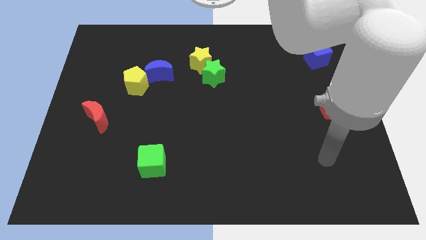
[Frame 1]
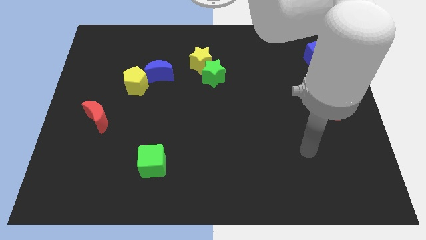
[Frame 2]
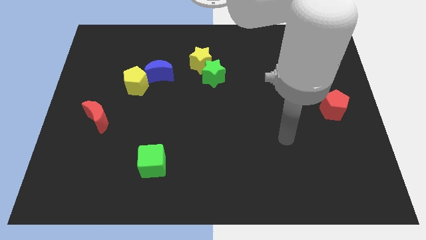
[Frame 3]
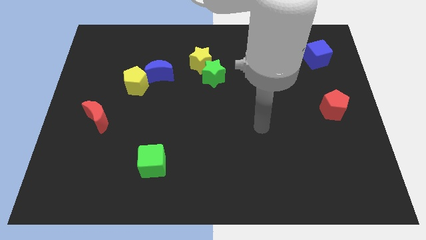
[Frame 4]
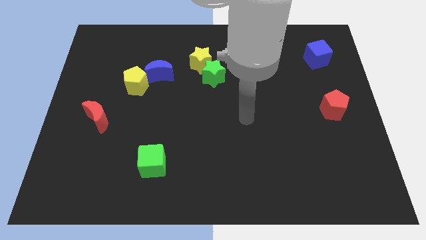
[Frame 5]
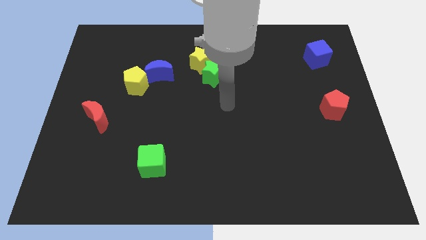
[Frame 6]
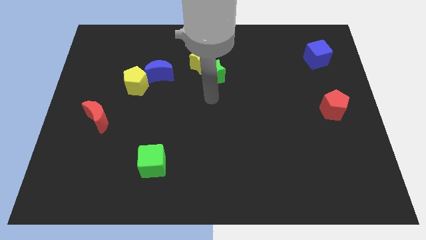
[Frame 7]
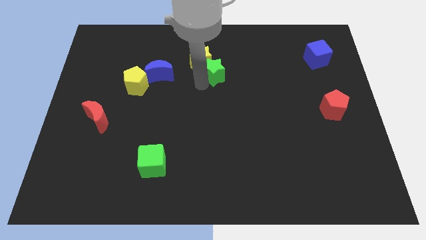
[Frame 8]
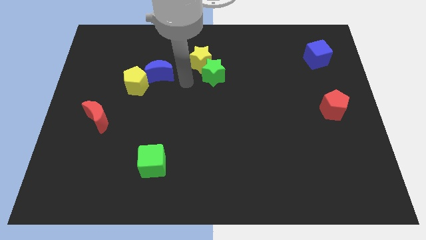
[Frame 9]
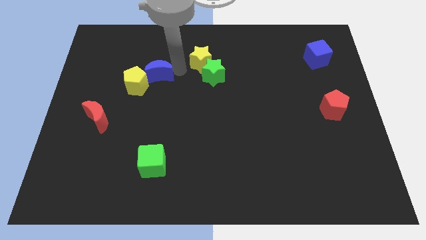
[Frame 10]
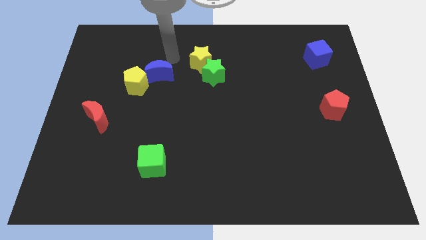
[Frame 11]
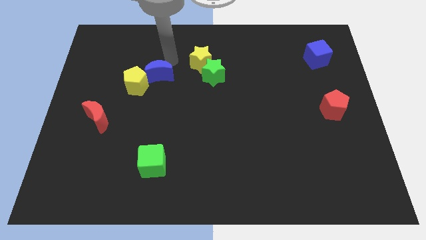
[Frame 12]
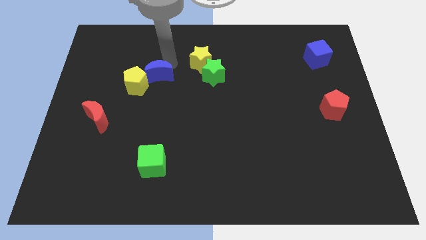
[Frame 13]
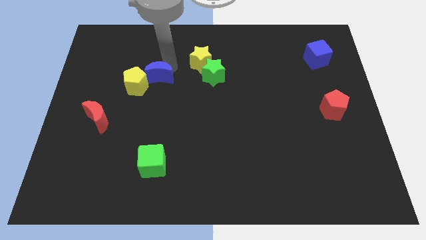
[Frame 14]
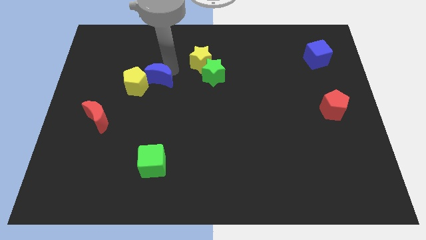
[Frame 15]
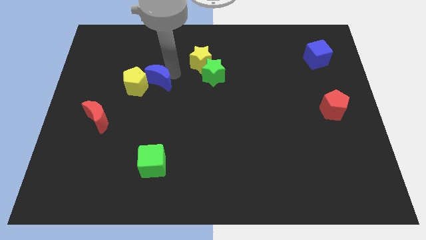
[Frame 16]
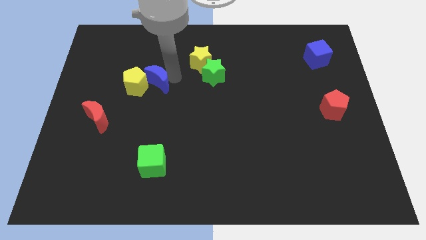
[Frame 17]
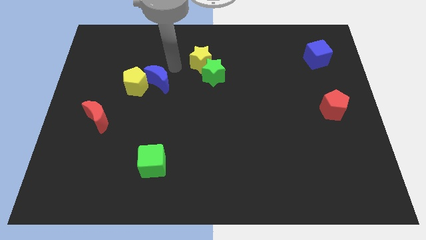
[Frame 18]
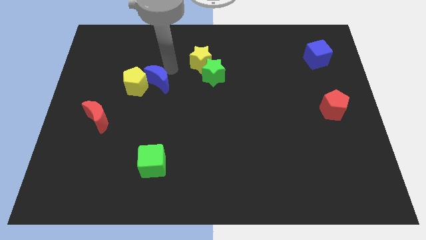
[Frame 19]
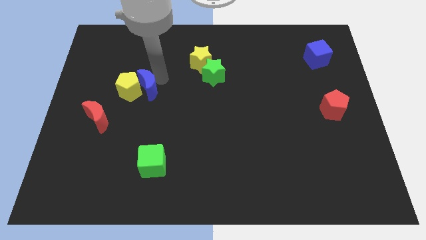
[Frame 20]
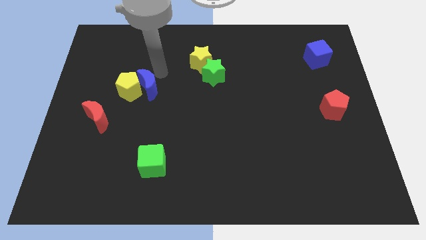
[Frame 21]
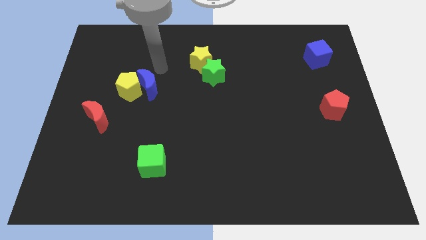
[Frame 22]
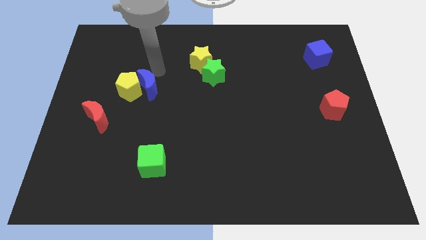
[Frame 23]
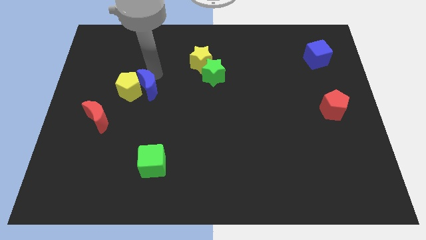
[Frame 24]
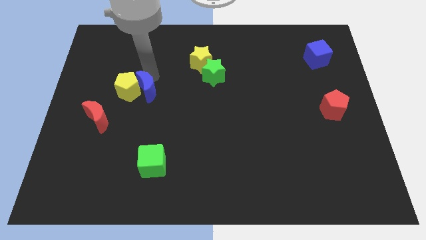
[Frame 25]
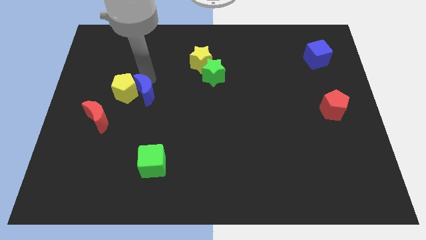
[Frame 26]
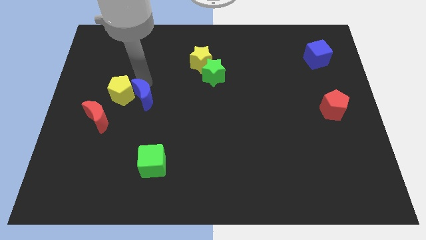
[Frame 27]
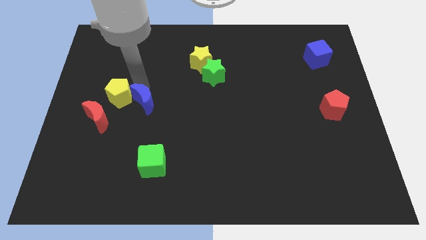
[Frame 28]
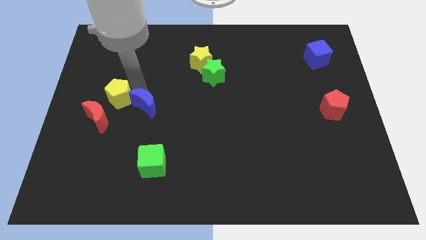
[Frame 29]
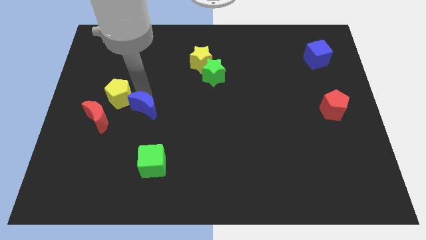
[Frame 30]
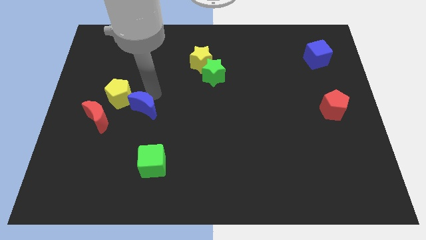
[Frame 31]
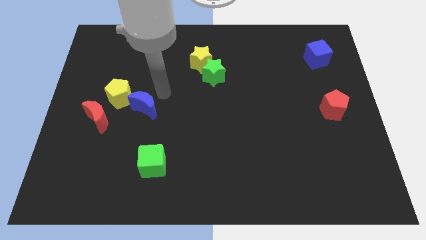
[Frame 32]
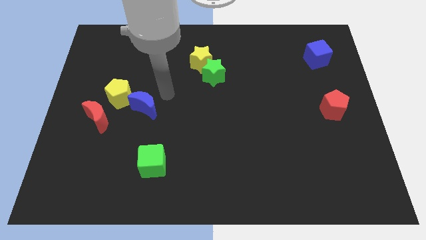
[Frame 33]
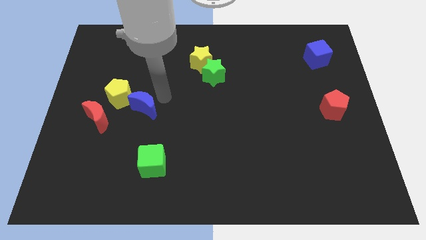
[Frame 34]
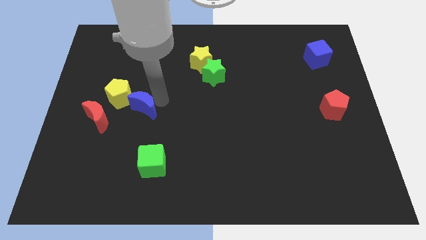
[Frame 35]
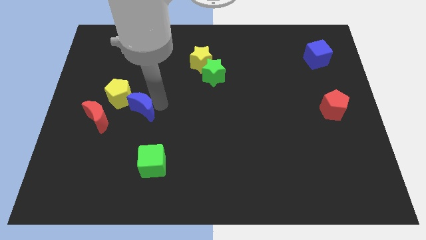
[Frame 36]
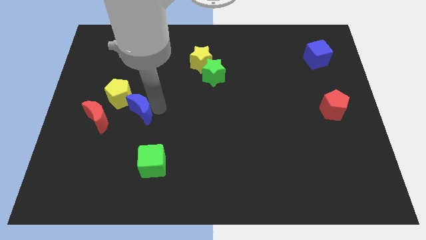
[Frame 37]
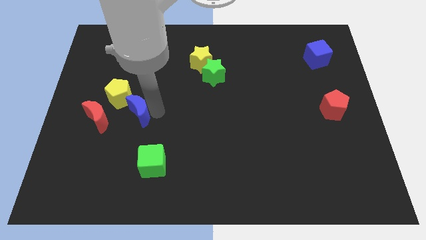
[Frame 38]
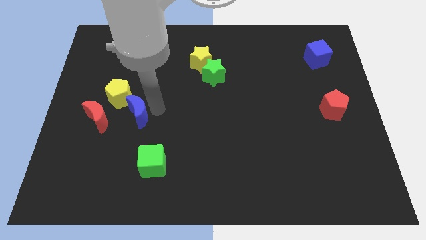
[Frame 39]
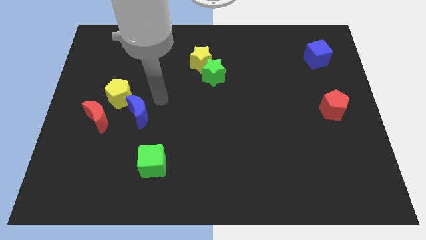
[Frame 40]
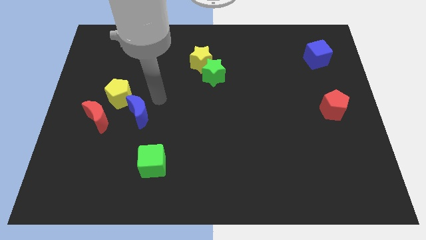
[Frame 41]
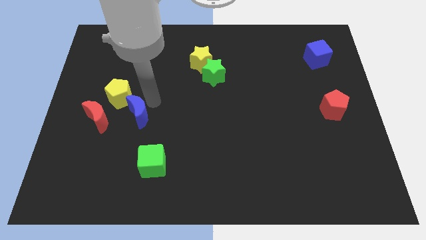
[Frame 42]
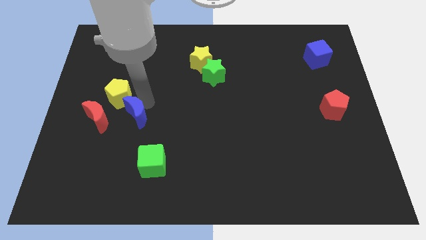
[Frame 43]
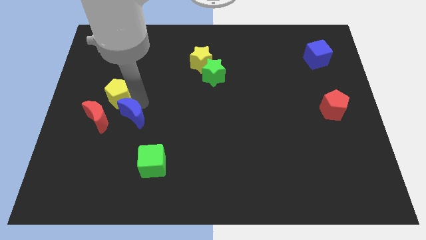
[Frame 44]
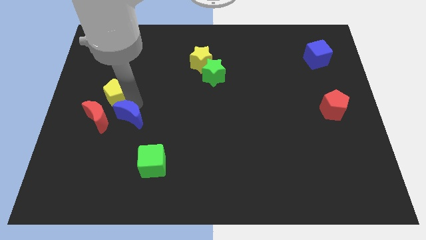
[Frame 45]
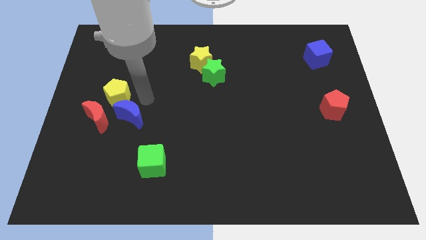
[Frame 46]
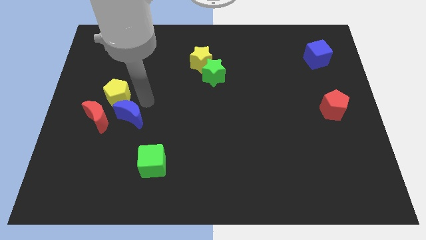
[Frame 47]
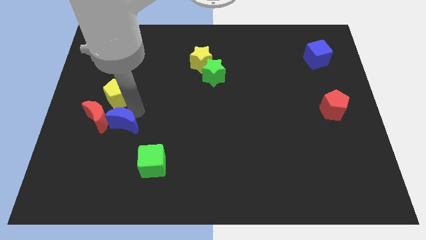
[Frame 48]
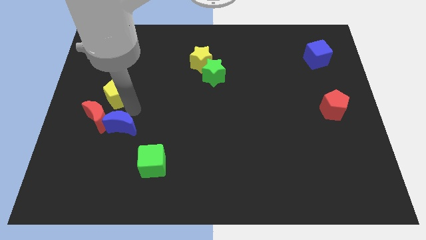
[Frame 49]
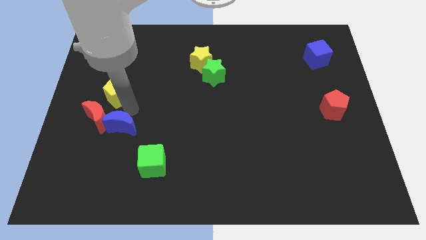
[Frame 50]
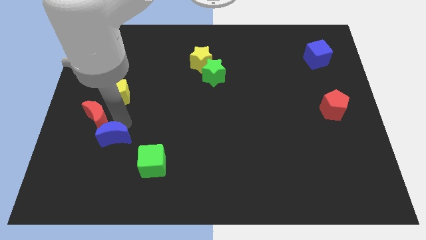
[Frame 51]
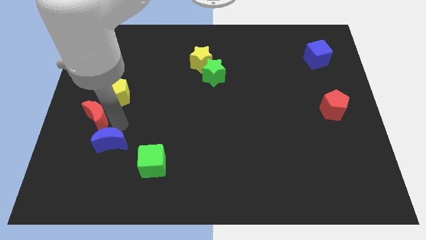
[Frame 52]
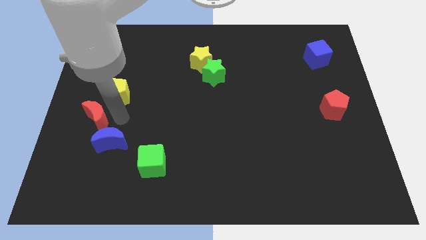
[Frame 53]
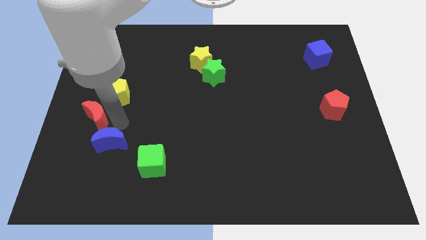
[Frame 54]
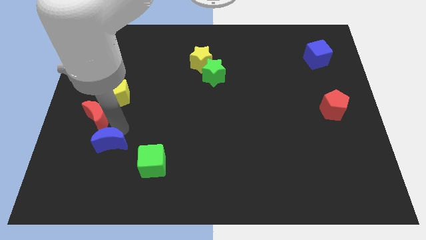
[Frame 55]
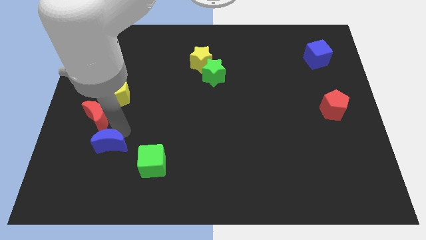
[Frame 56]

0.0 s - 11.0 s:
move the blue moon just left of the green cube

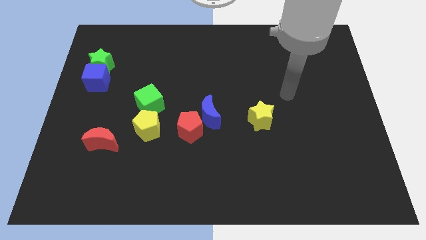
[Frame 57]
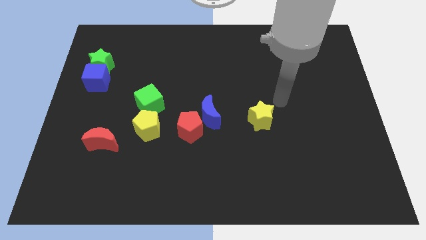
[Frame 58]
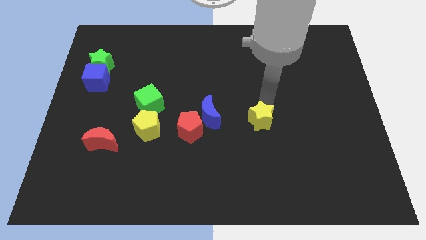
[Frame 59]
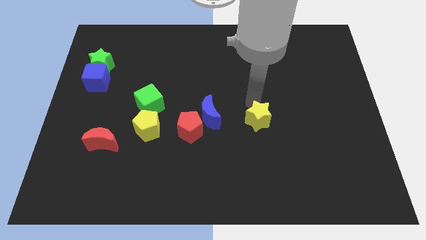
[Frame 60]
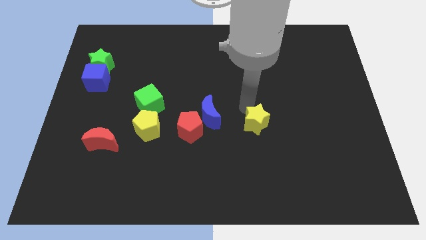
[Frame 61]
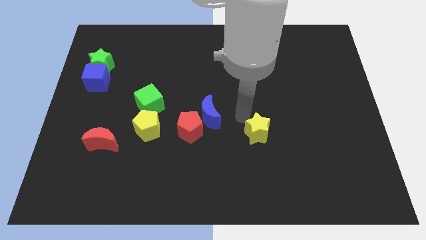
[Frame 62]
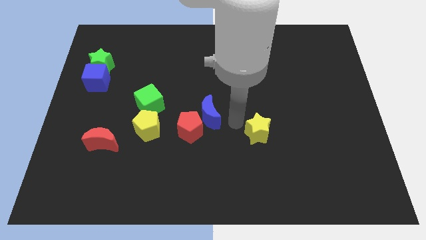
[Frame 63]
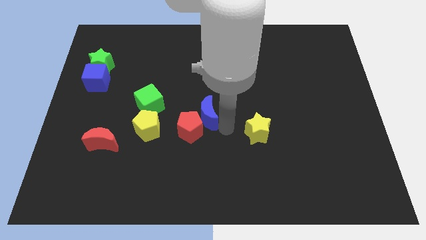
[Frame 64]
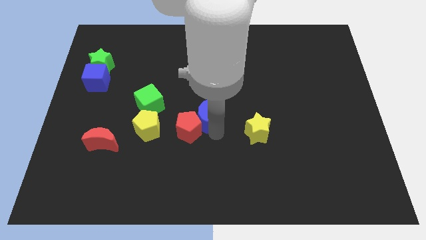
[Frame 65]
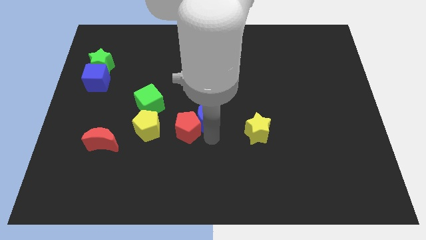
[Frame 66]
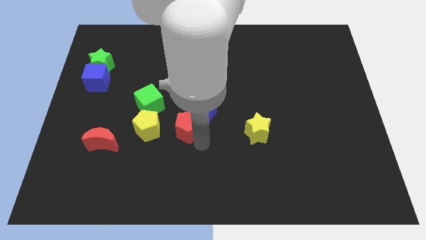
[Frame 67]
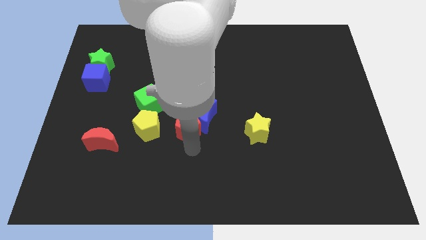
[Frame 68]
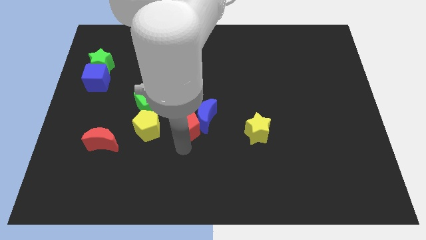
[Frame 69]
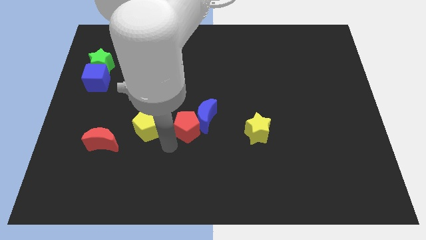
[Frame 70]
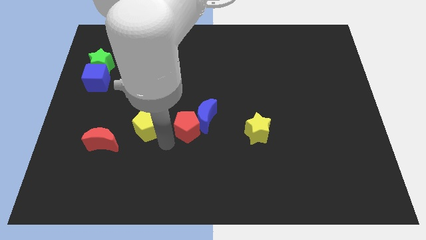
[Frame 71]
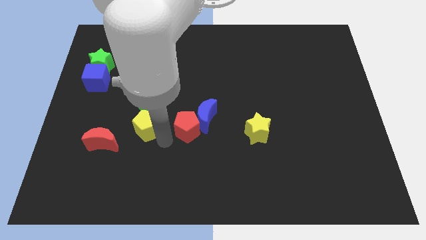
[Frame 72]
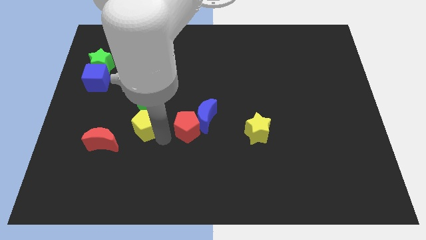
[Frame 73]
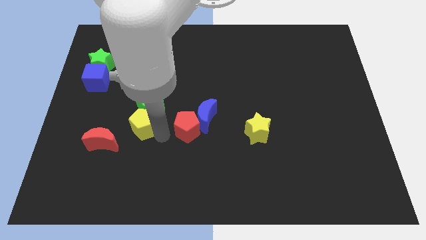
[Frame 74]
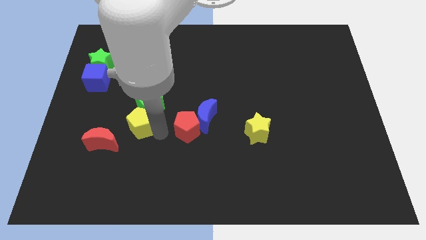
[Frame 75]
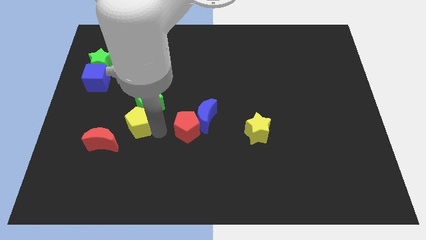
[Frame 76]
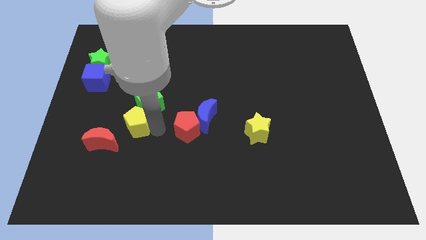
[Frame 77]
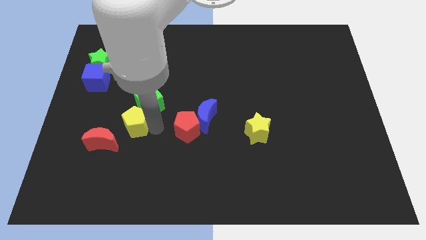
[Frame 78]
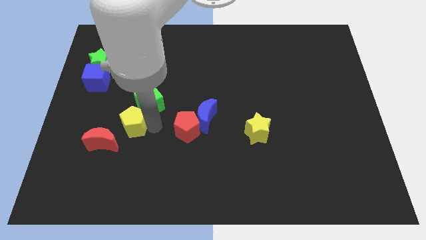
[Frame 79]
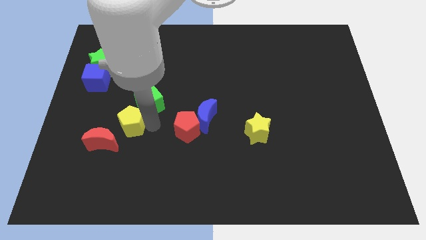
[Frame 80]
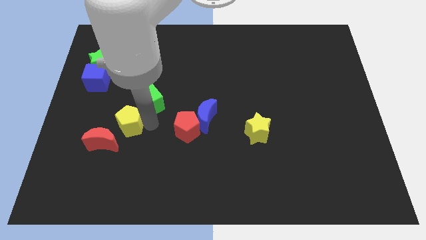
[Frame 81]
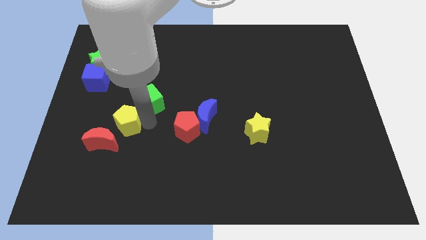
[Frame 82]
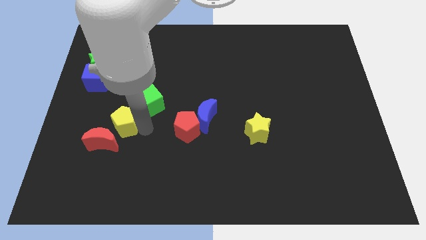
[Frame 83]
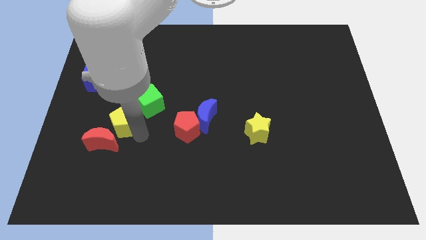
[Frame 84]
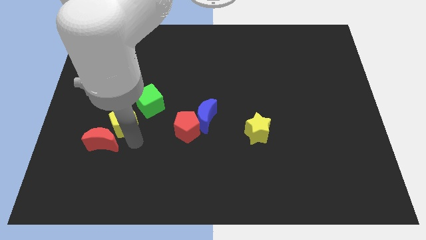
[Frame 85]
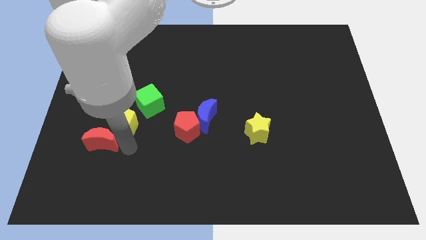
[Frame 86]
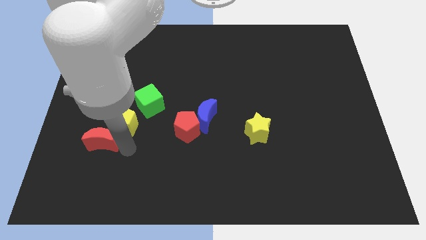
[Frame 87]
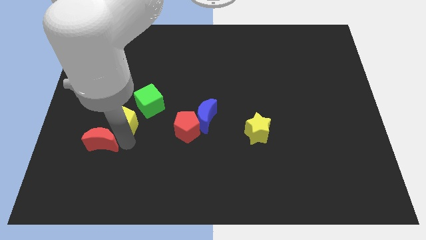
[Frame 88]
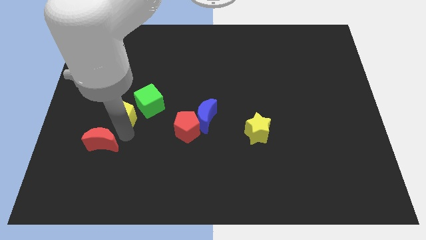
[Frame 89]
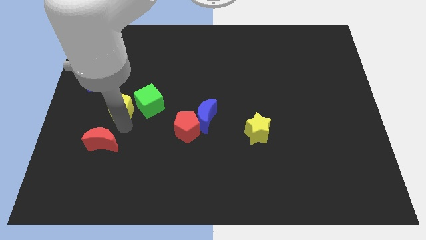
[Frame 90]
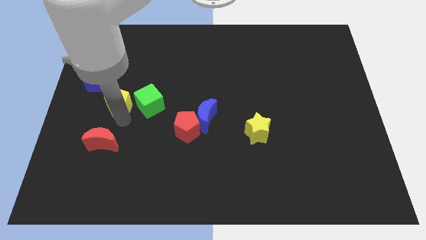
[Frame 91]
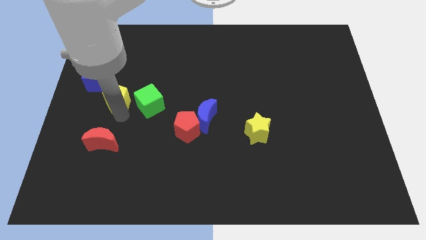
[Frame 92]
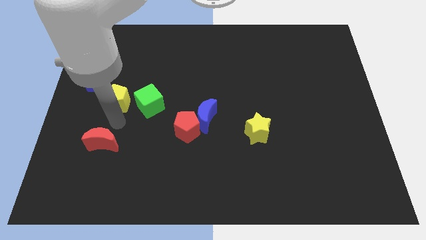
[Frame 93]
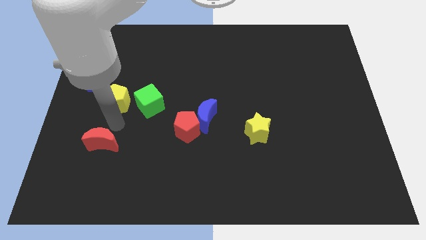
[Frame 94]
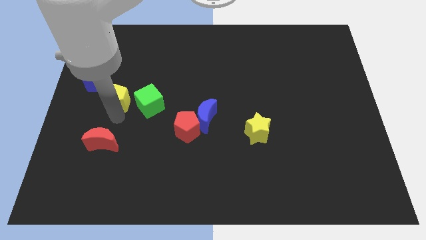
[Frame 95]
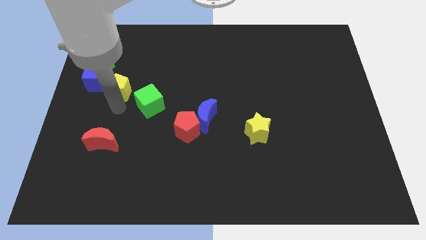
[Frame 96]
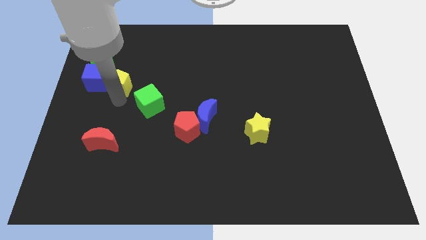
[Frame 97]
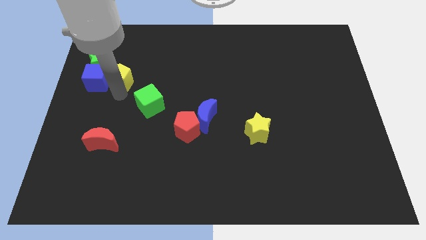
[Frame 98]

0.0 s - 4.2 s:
push the yellow pentagon diagonally up and to the right of the blue cube
